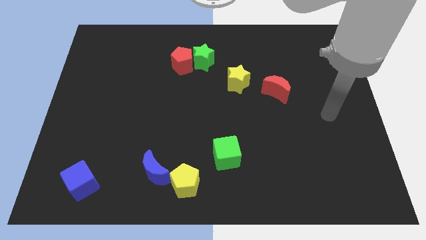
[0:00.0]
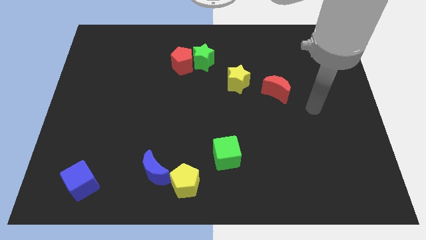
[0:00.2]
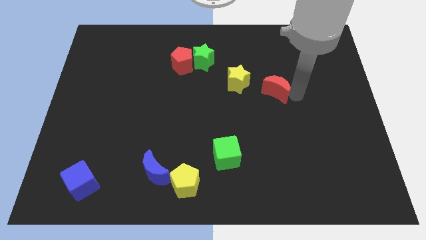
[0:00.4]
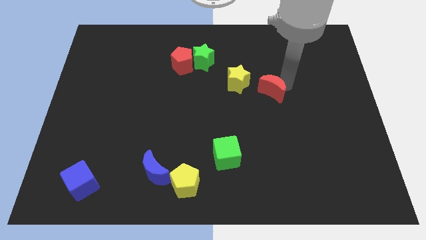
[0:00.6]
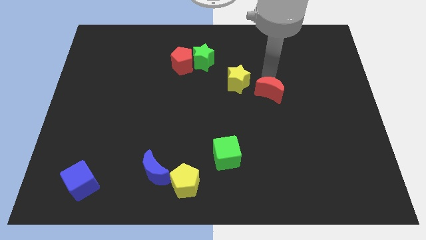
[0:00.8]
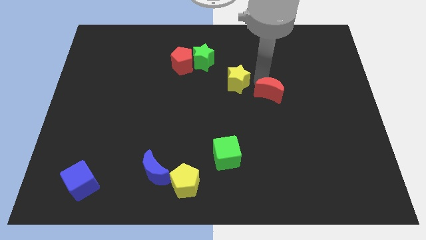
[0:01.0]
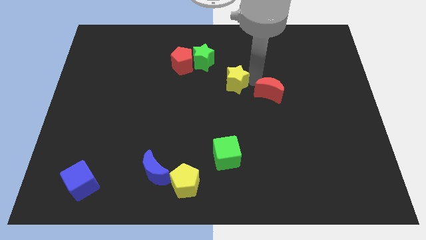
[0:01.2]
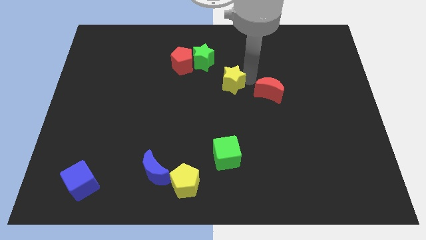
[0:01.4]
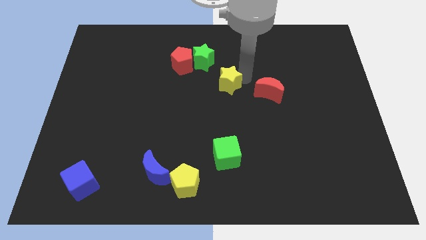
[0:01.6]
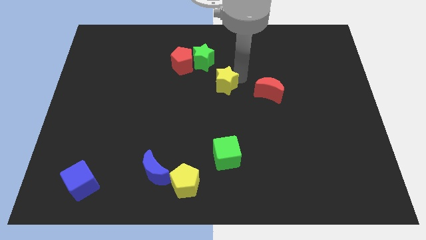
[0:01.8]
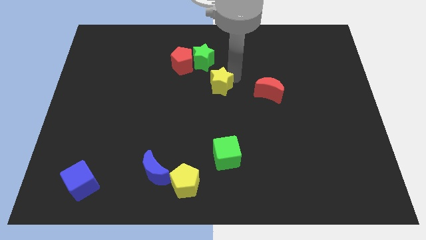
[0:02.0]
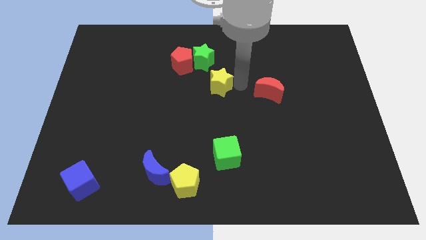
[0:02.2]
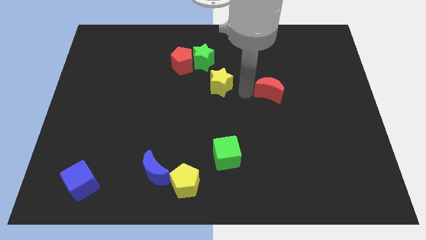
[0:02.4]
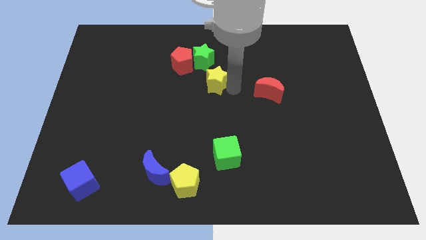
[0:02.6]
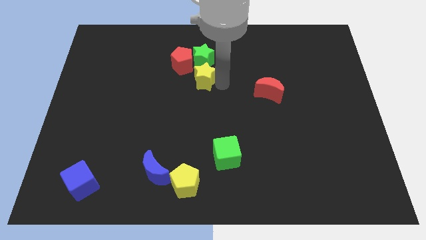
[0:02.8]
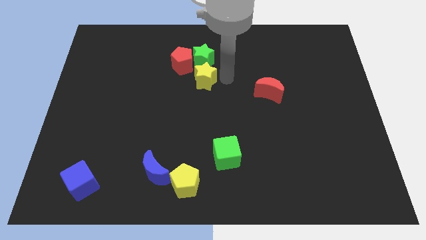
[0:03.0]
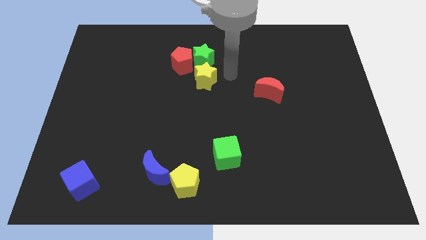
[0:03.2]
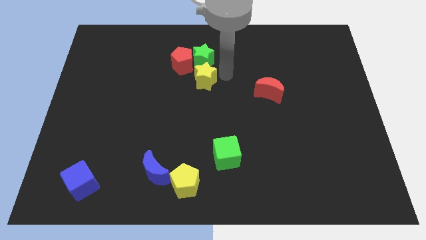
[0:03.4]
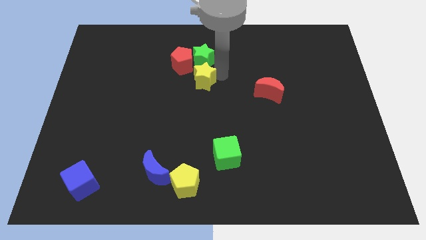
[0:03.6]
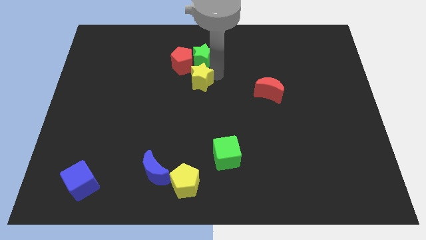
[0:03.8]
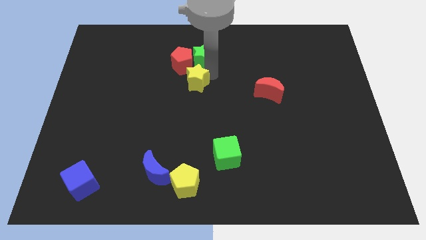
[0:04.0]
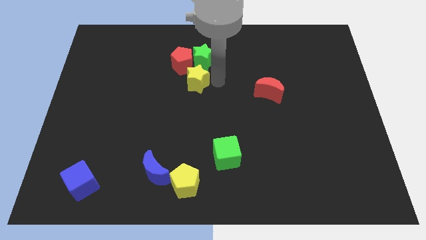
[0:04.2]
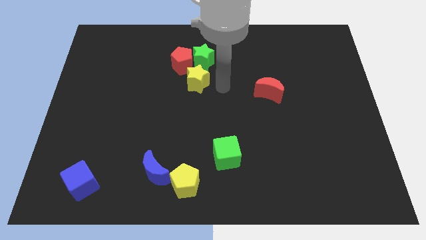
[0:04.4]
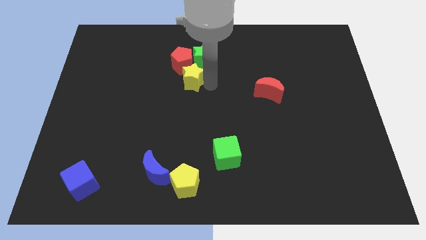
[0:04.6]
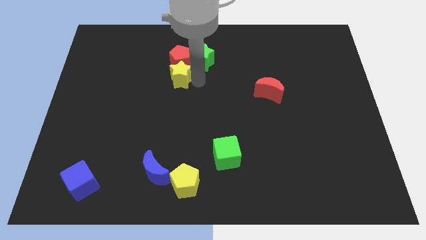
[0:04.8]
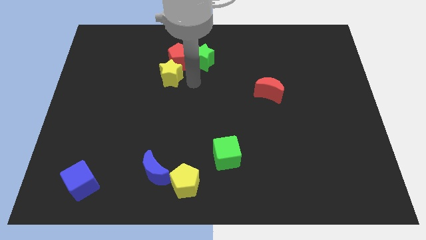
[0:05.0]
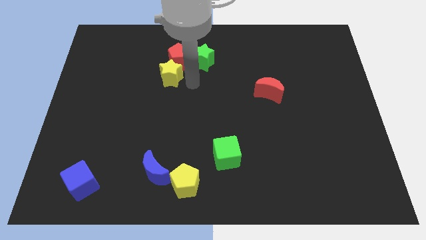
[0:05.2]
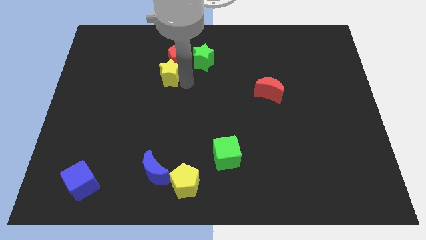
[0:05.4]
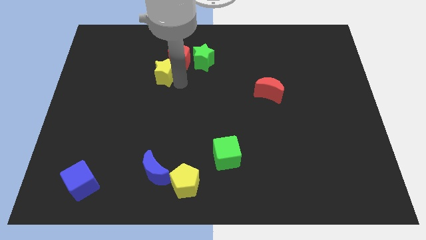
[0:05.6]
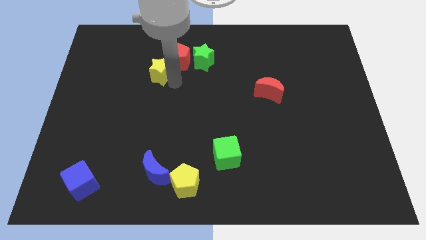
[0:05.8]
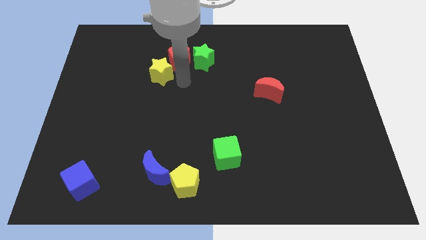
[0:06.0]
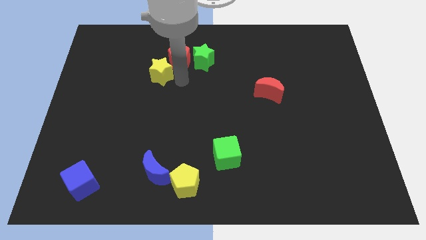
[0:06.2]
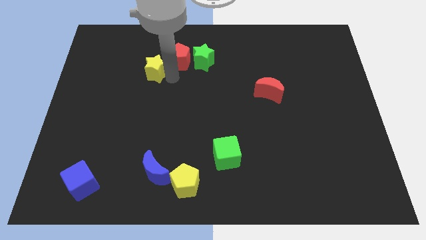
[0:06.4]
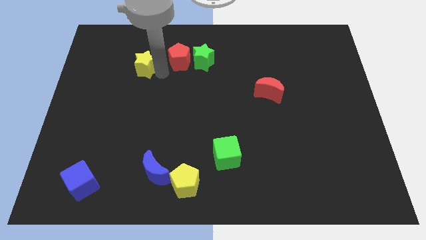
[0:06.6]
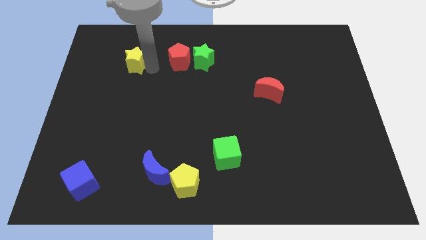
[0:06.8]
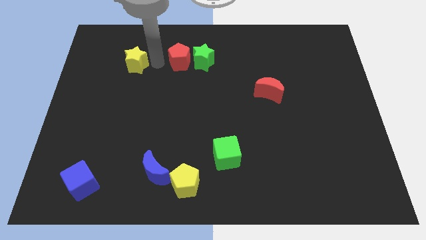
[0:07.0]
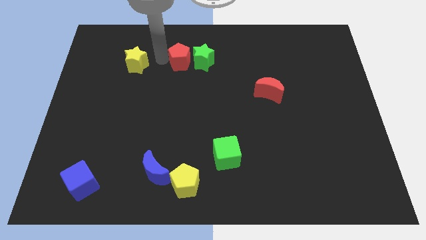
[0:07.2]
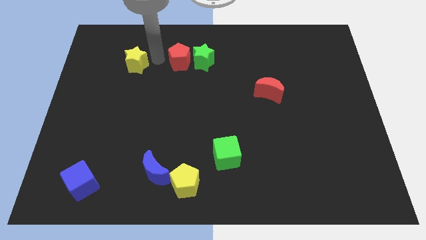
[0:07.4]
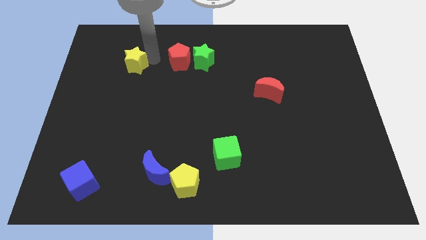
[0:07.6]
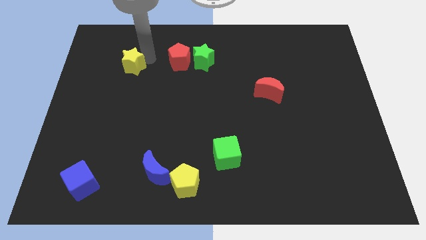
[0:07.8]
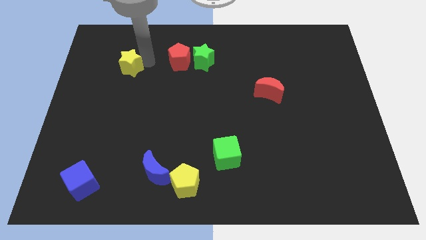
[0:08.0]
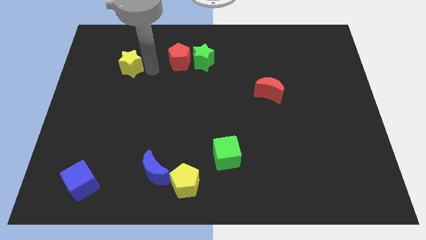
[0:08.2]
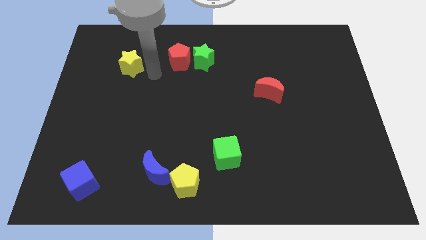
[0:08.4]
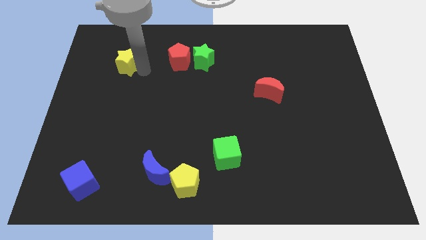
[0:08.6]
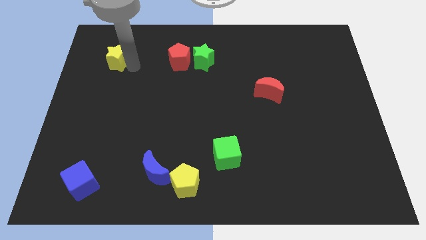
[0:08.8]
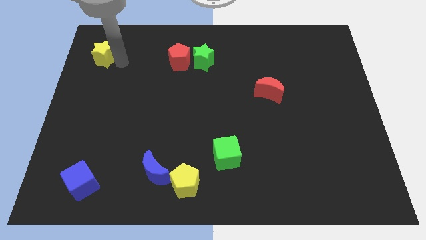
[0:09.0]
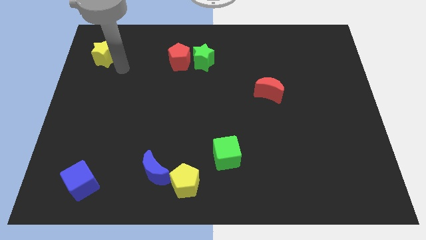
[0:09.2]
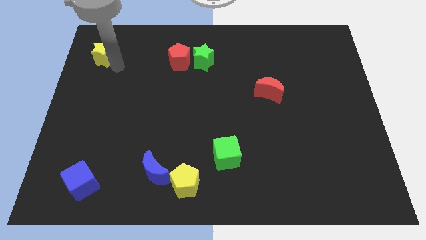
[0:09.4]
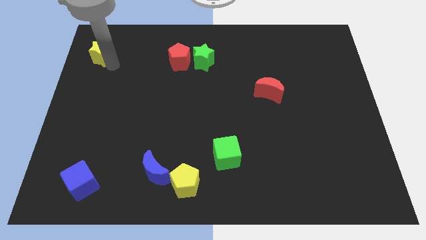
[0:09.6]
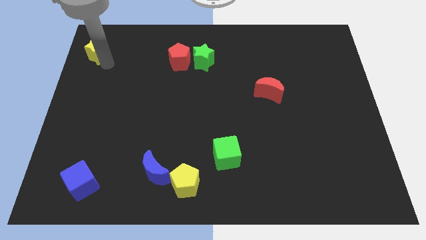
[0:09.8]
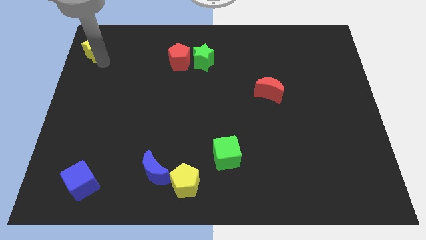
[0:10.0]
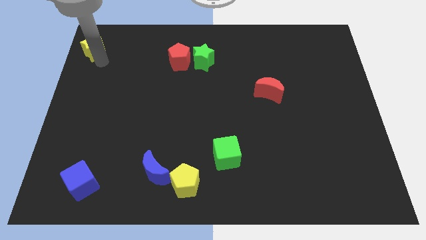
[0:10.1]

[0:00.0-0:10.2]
push the yellow star to the top left

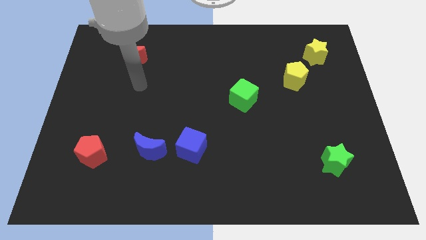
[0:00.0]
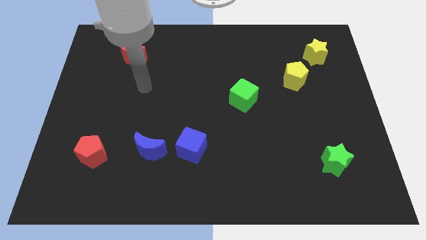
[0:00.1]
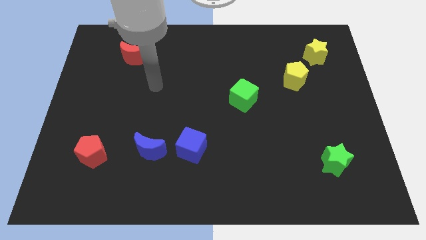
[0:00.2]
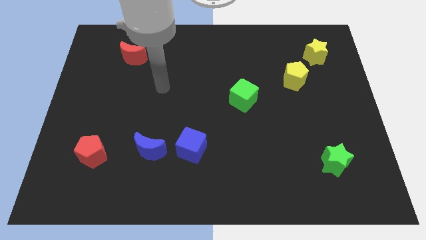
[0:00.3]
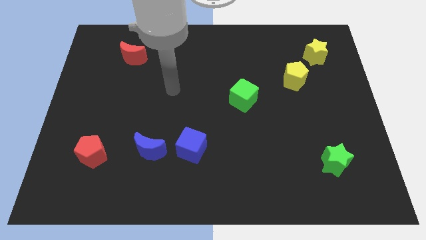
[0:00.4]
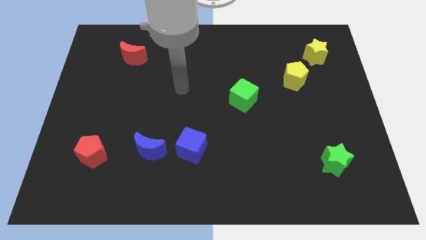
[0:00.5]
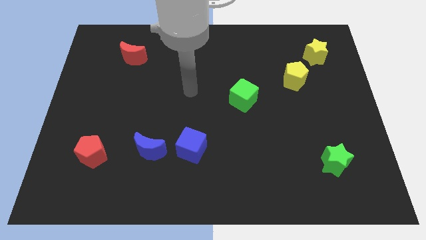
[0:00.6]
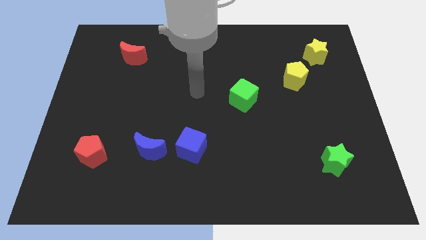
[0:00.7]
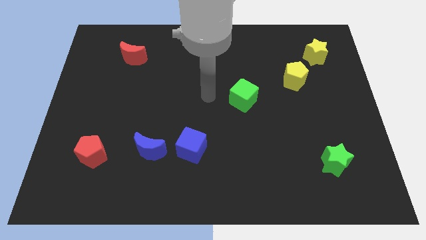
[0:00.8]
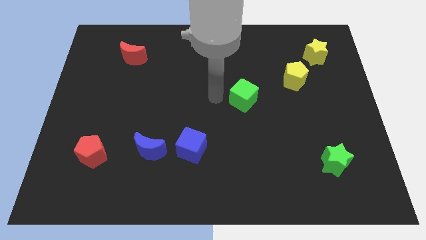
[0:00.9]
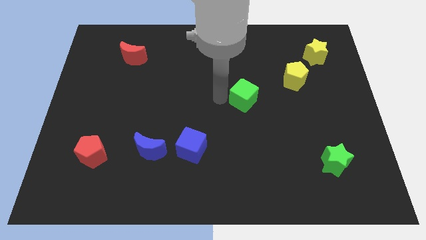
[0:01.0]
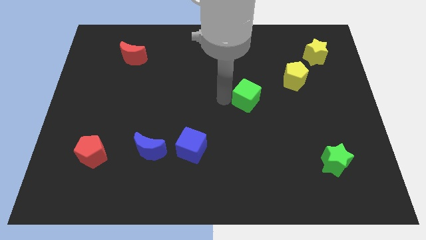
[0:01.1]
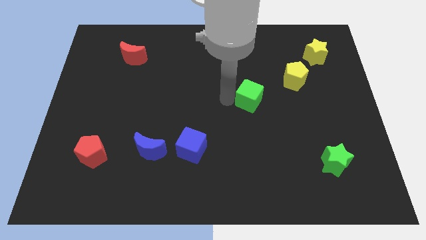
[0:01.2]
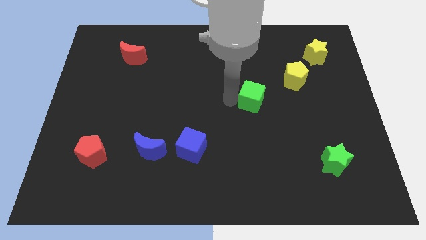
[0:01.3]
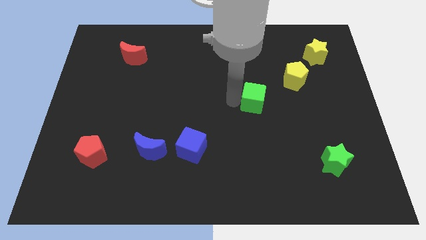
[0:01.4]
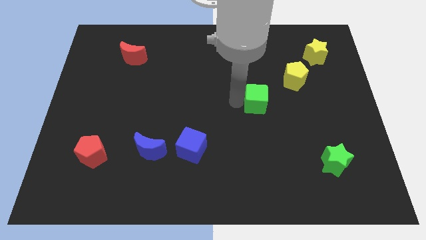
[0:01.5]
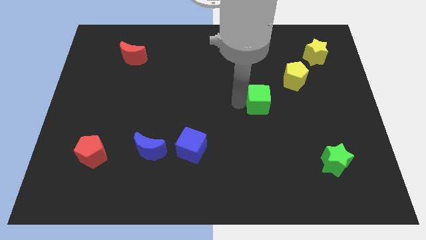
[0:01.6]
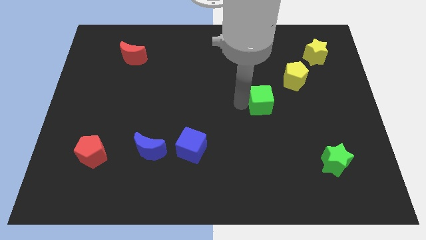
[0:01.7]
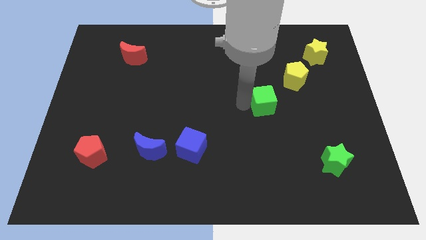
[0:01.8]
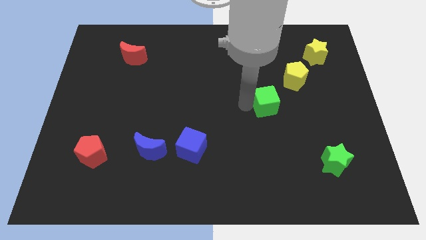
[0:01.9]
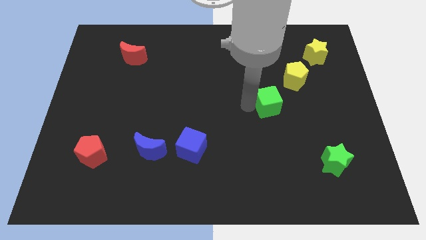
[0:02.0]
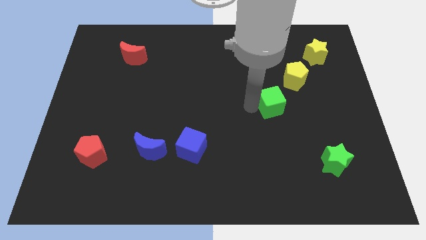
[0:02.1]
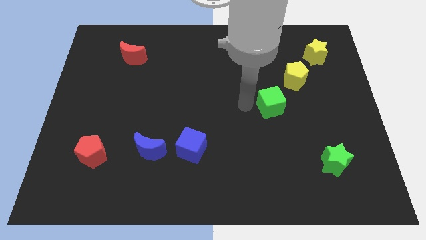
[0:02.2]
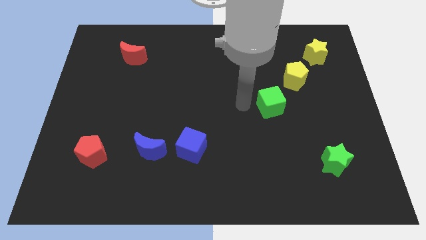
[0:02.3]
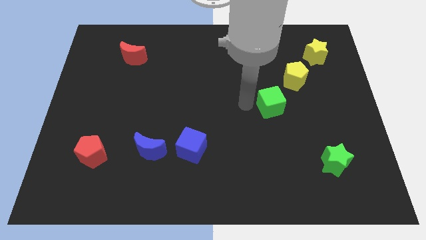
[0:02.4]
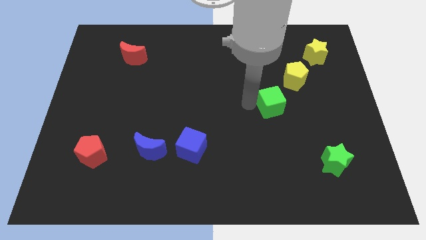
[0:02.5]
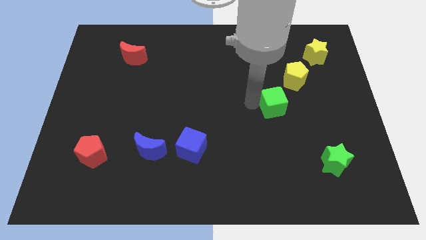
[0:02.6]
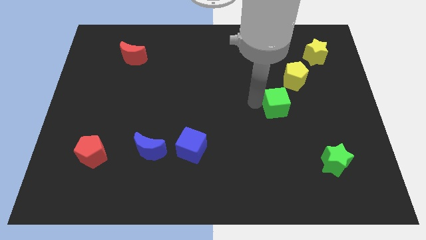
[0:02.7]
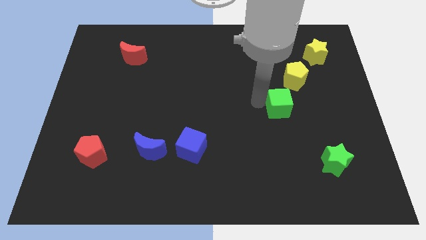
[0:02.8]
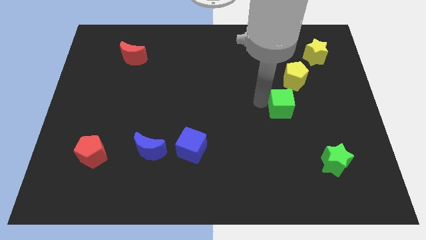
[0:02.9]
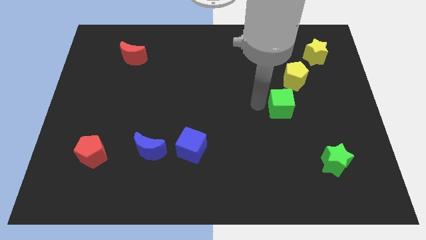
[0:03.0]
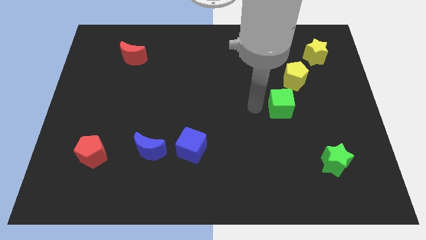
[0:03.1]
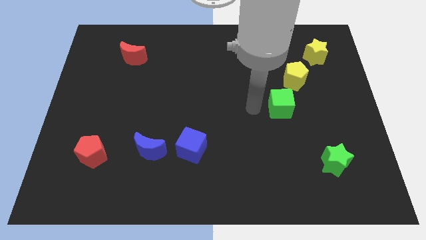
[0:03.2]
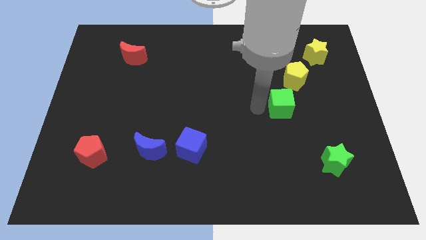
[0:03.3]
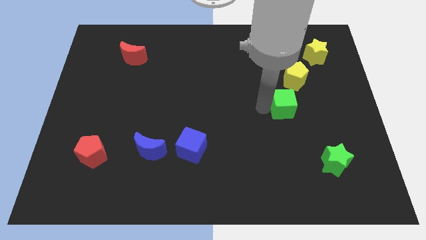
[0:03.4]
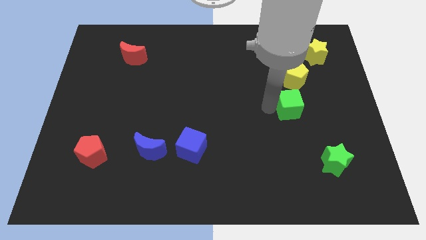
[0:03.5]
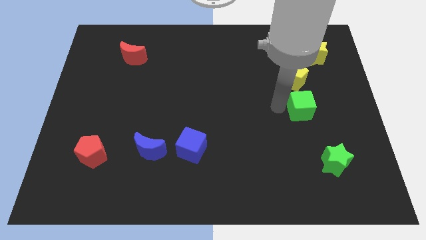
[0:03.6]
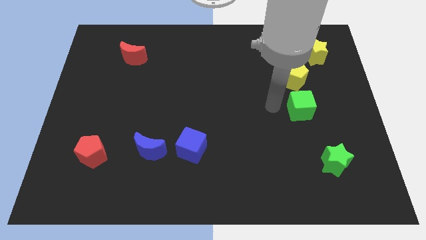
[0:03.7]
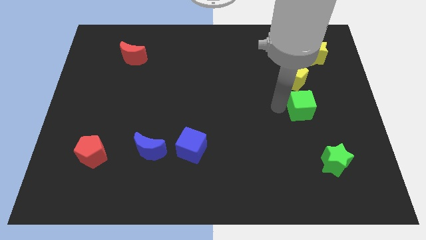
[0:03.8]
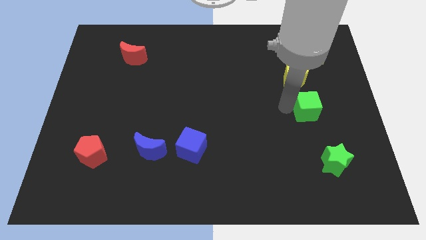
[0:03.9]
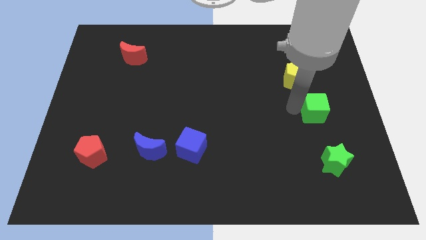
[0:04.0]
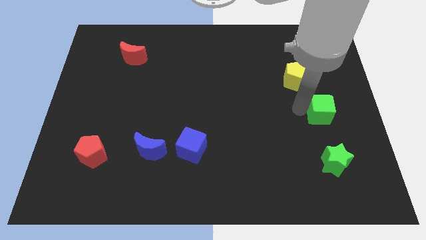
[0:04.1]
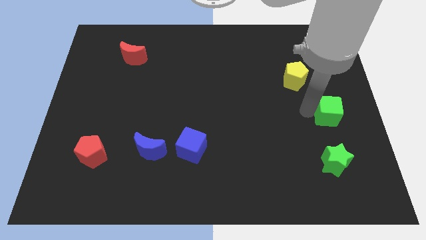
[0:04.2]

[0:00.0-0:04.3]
move the green cube to the center right
